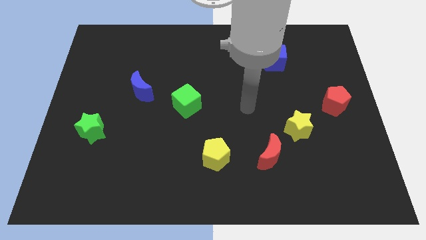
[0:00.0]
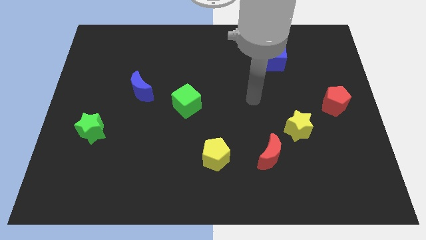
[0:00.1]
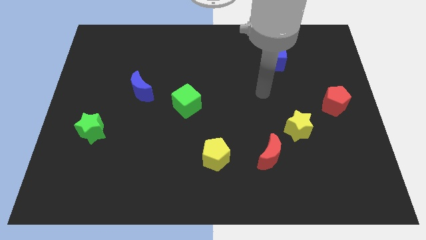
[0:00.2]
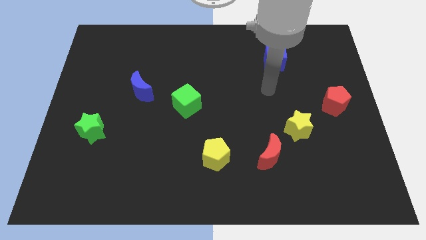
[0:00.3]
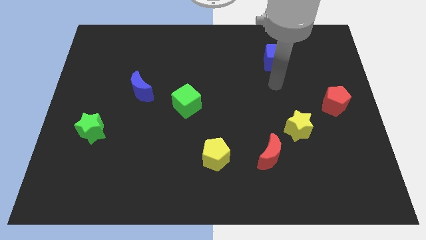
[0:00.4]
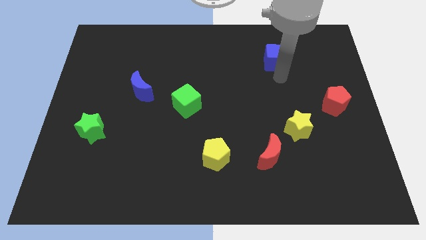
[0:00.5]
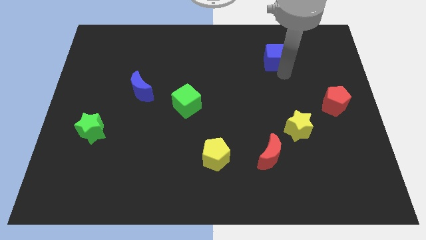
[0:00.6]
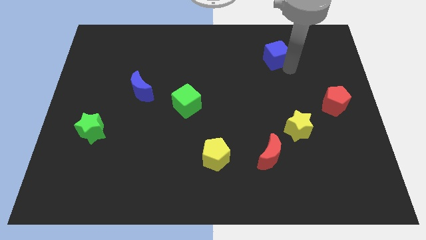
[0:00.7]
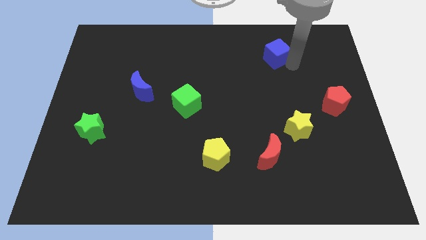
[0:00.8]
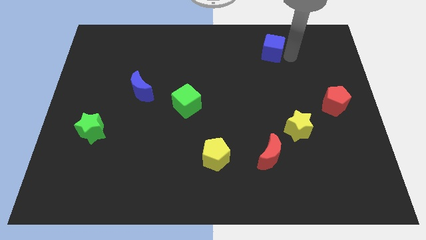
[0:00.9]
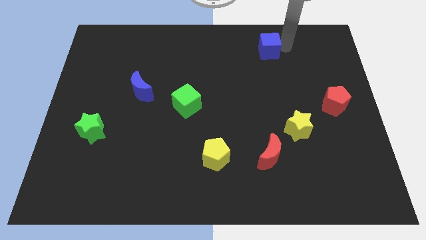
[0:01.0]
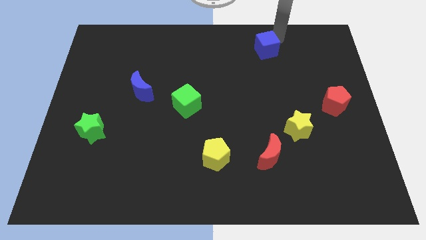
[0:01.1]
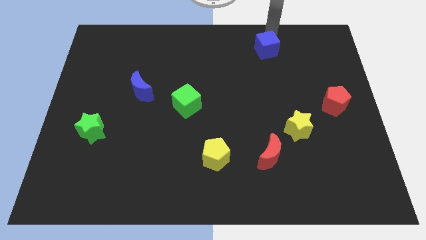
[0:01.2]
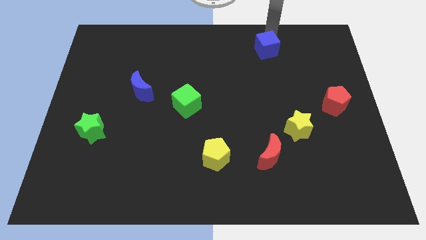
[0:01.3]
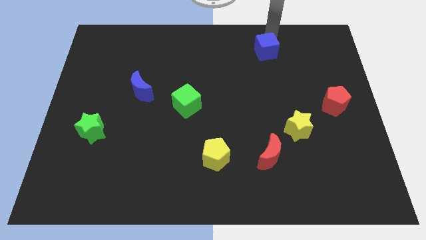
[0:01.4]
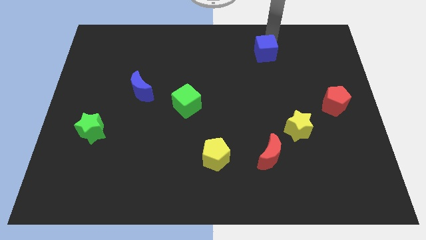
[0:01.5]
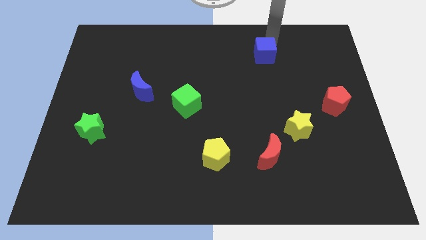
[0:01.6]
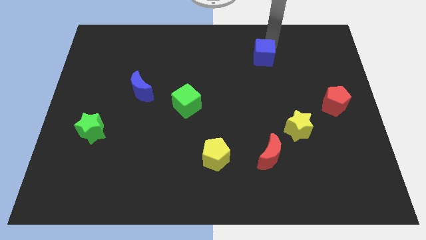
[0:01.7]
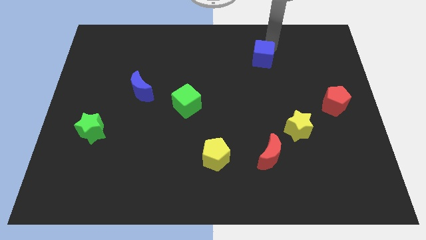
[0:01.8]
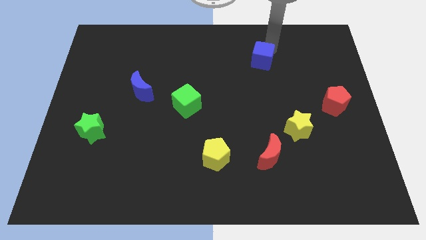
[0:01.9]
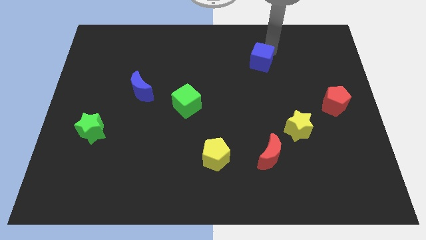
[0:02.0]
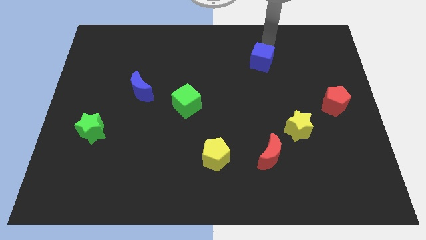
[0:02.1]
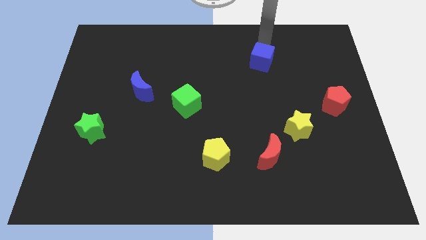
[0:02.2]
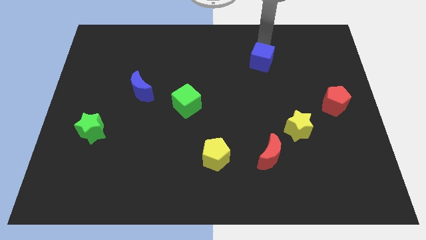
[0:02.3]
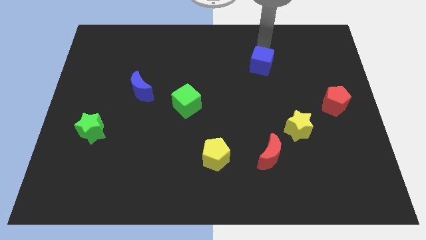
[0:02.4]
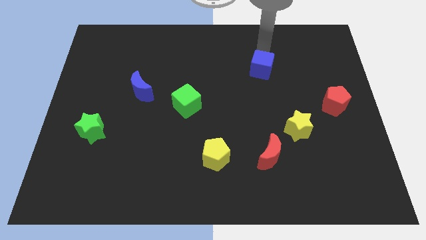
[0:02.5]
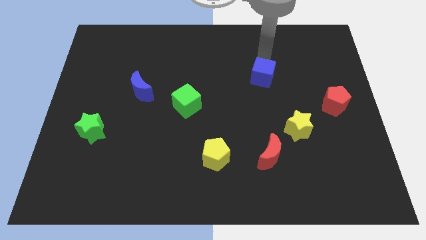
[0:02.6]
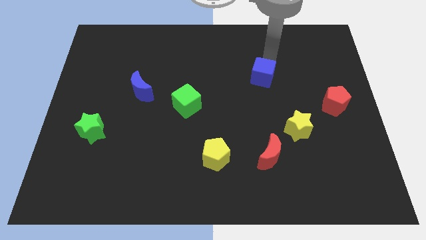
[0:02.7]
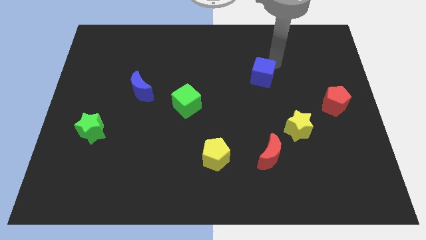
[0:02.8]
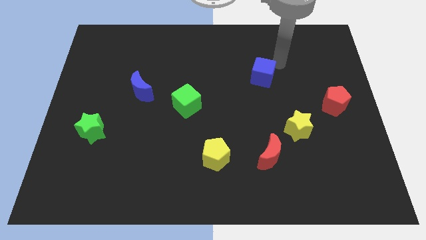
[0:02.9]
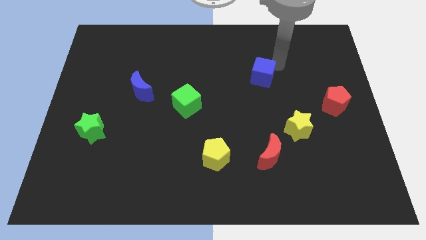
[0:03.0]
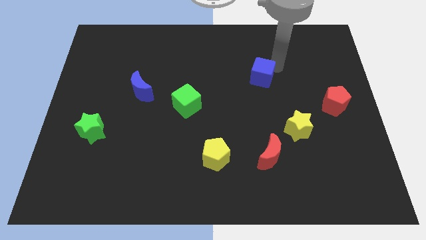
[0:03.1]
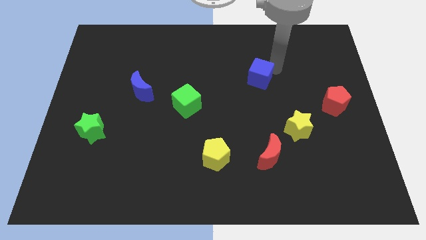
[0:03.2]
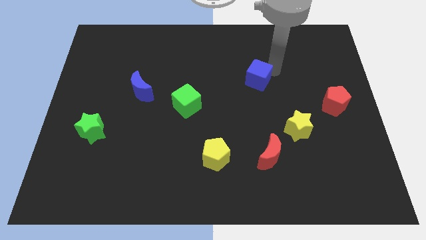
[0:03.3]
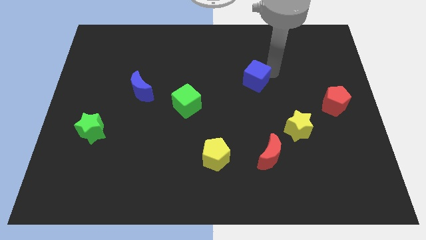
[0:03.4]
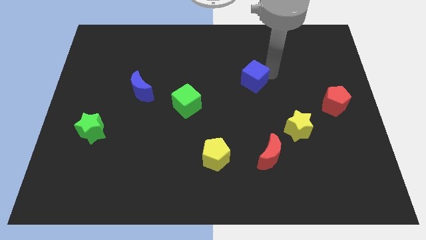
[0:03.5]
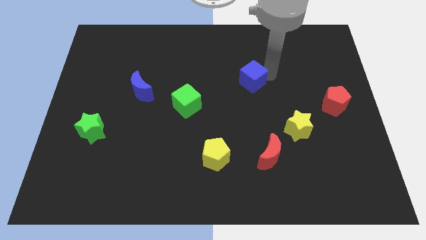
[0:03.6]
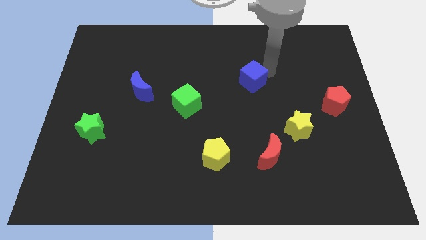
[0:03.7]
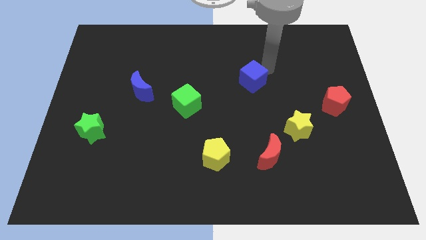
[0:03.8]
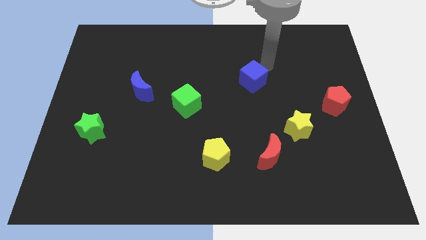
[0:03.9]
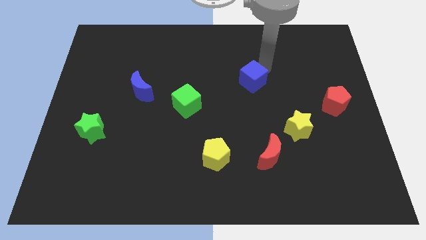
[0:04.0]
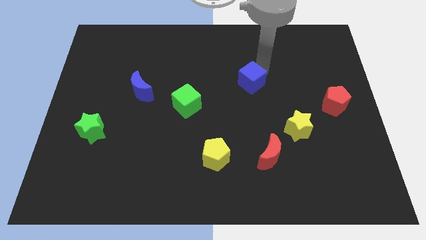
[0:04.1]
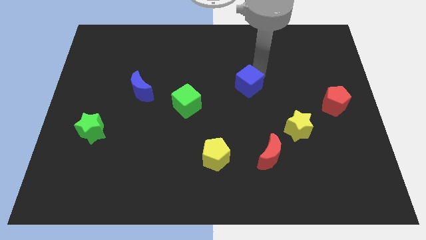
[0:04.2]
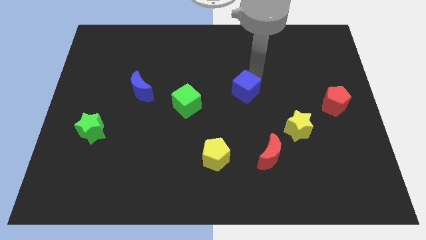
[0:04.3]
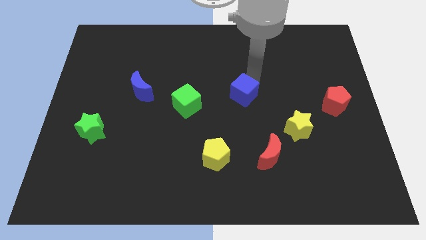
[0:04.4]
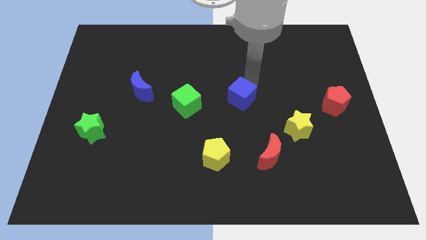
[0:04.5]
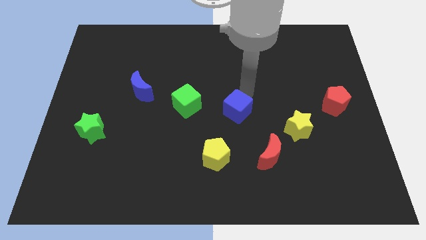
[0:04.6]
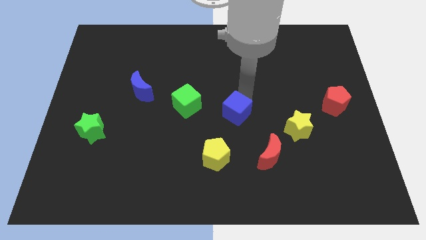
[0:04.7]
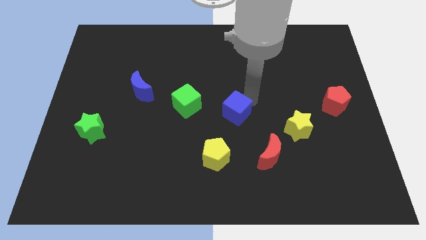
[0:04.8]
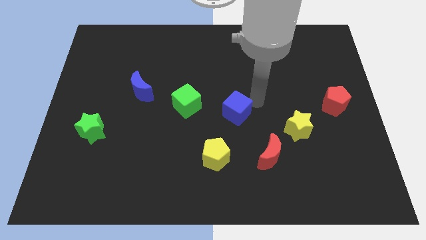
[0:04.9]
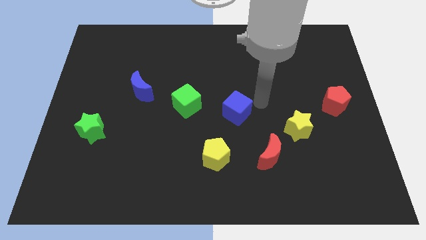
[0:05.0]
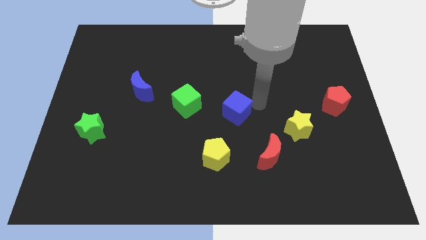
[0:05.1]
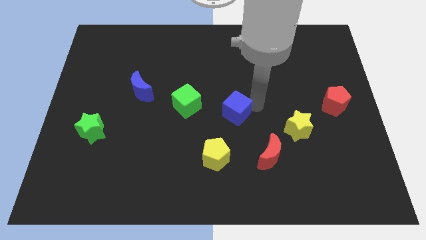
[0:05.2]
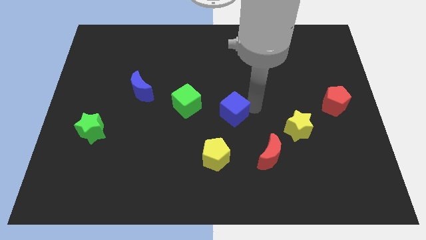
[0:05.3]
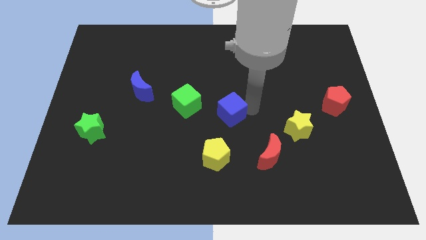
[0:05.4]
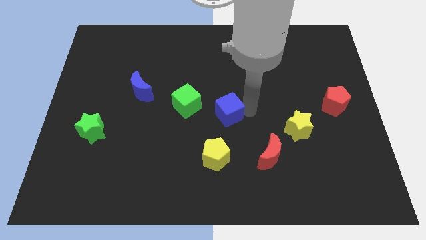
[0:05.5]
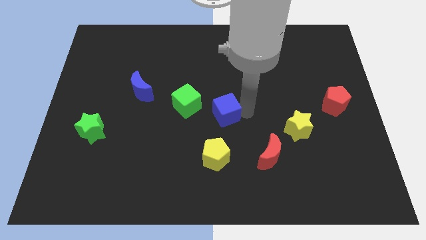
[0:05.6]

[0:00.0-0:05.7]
move the blue cube diagonally down and to the right of the green cube

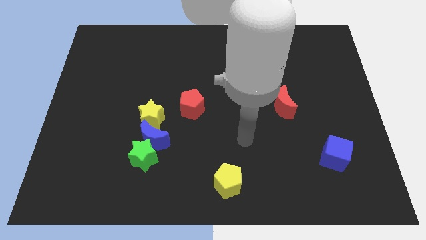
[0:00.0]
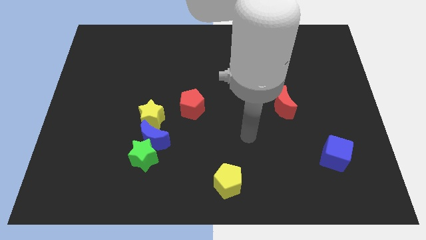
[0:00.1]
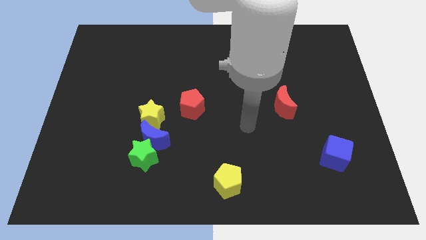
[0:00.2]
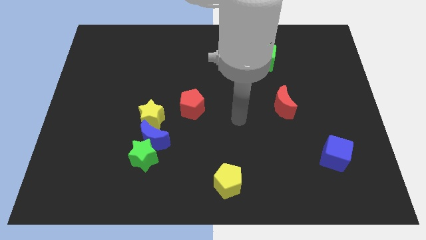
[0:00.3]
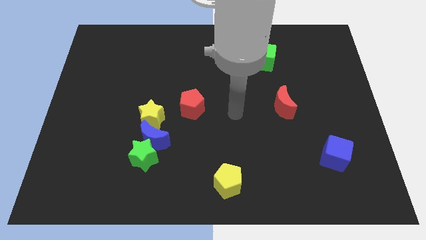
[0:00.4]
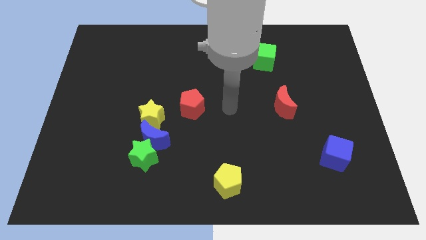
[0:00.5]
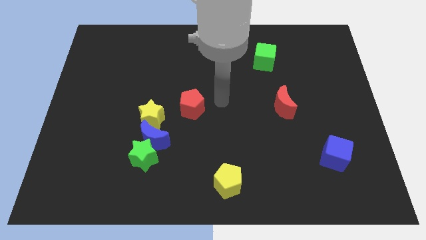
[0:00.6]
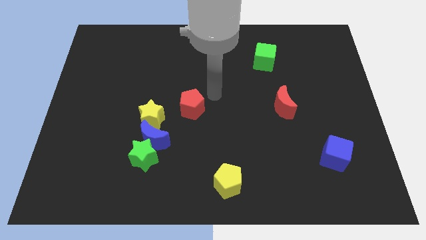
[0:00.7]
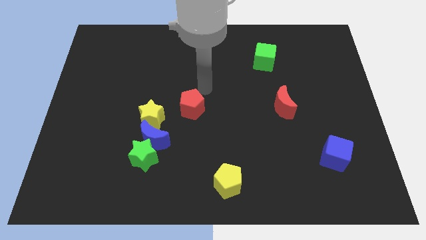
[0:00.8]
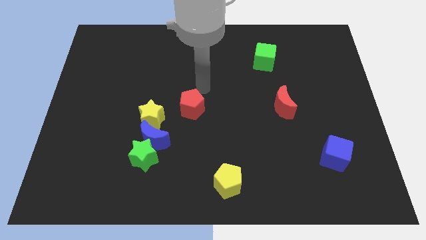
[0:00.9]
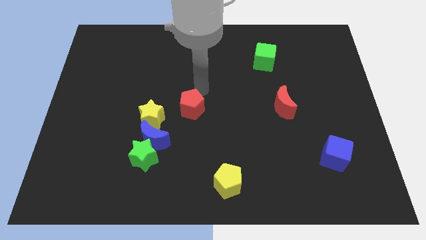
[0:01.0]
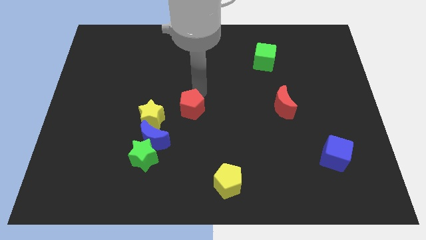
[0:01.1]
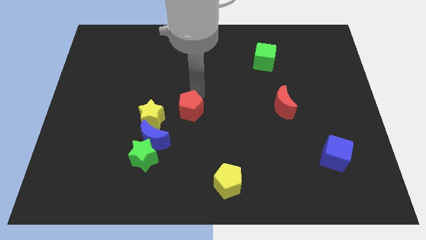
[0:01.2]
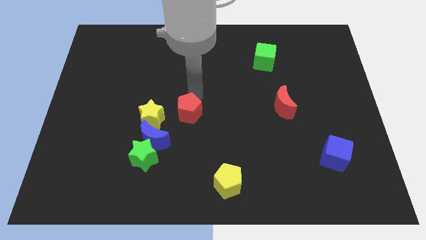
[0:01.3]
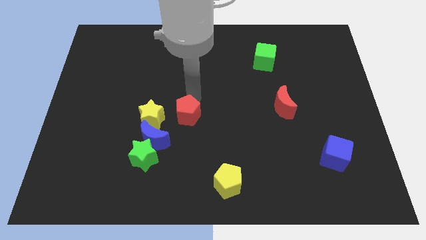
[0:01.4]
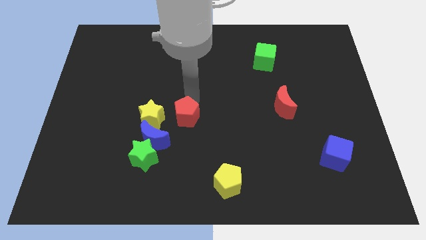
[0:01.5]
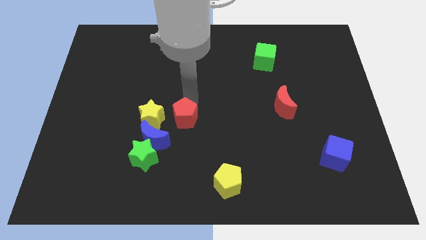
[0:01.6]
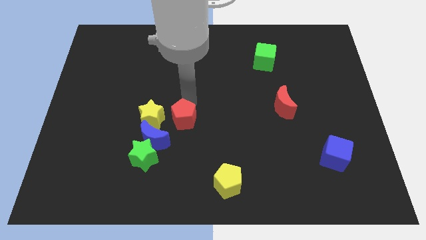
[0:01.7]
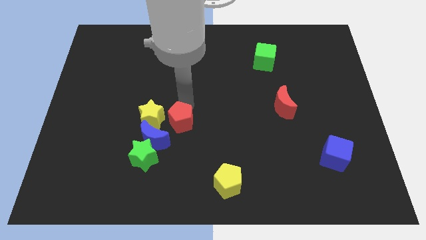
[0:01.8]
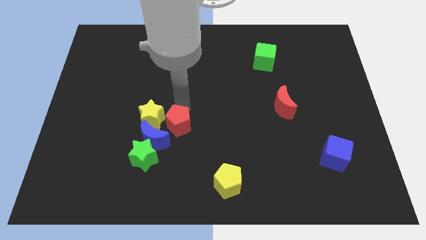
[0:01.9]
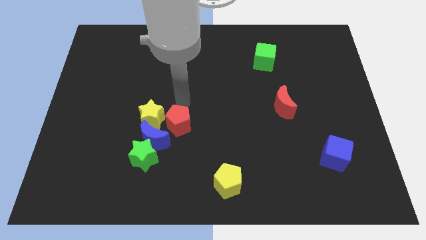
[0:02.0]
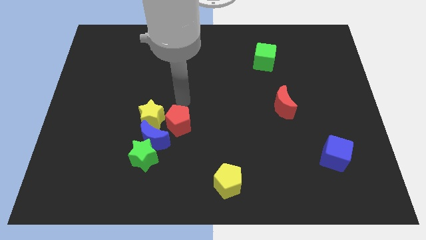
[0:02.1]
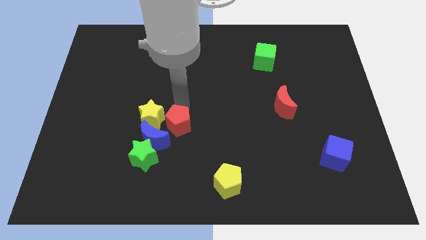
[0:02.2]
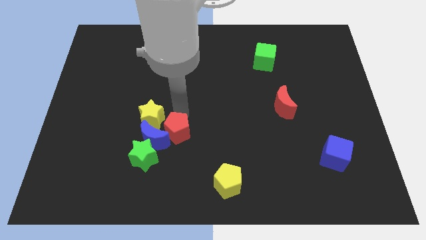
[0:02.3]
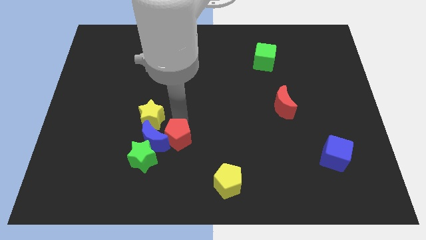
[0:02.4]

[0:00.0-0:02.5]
slide the red pentagon diagonally down and to the right of the blue moon
